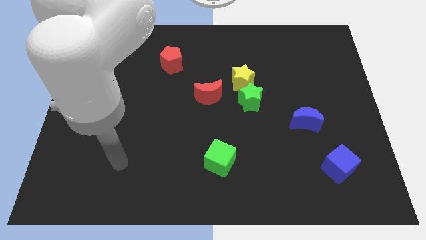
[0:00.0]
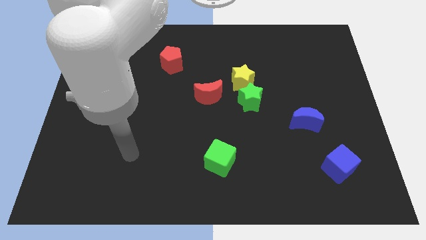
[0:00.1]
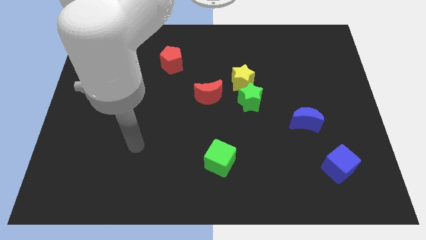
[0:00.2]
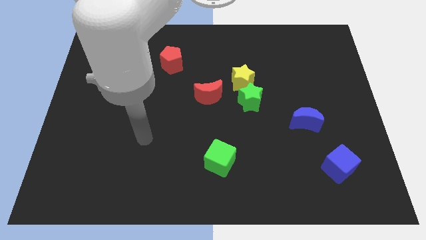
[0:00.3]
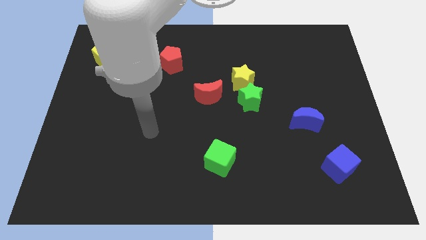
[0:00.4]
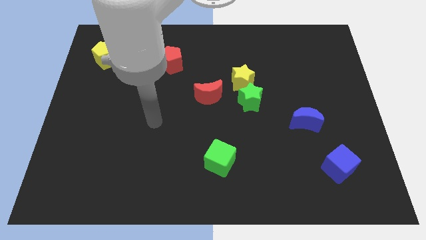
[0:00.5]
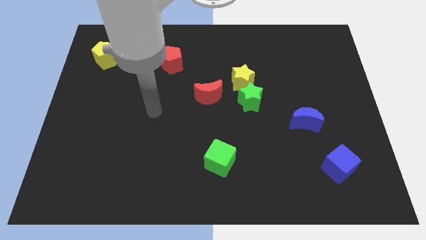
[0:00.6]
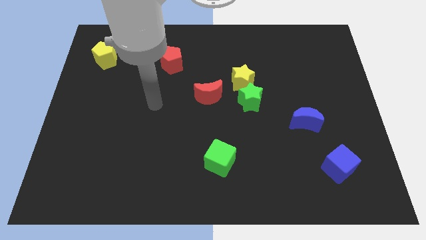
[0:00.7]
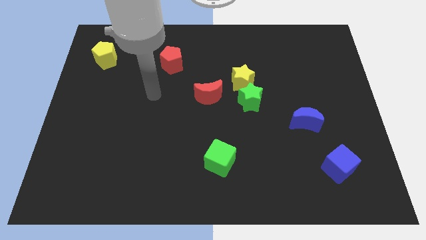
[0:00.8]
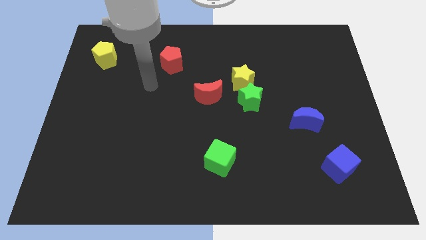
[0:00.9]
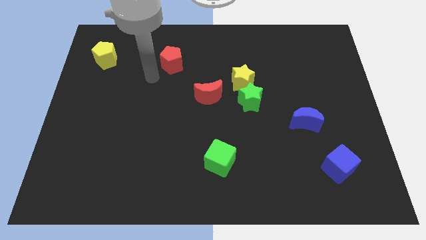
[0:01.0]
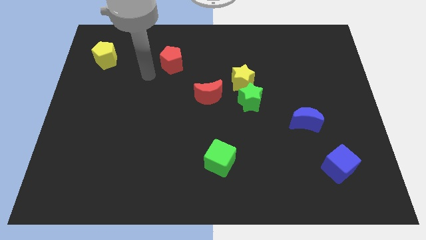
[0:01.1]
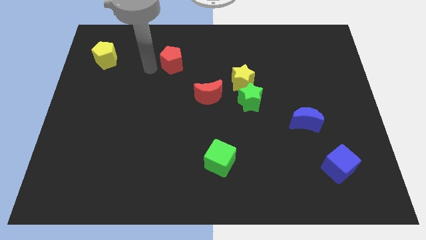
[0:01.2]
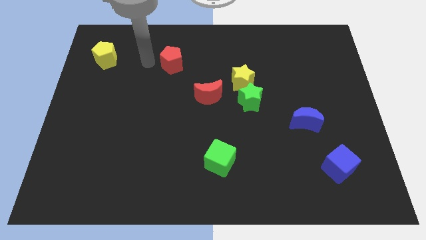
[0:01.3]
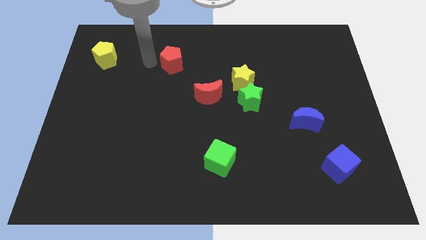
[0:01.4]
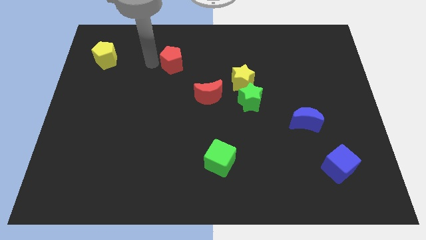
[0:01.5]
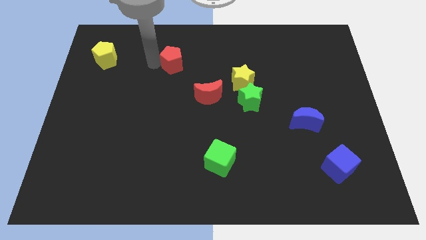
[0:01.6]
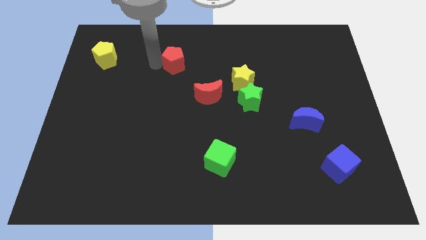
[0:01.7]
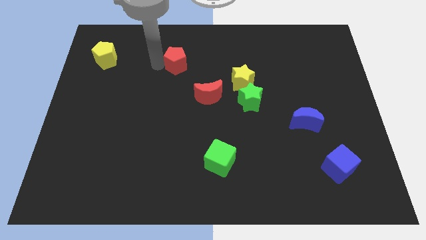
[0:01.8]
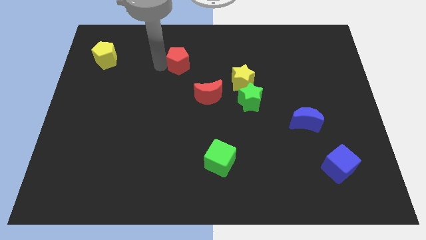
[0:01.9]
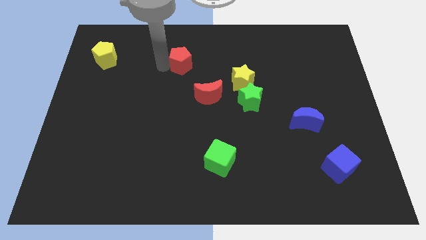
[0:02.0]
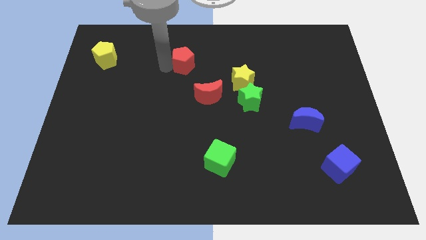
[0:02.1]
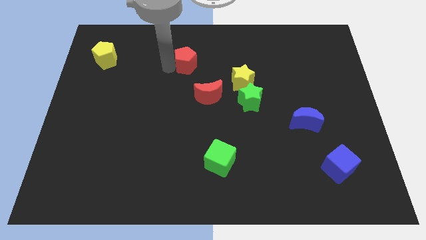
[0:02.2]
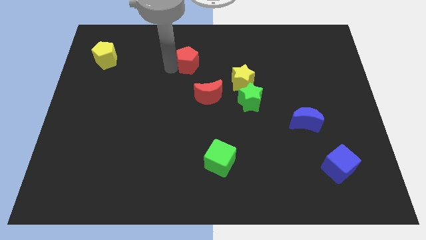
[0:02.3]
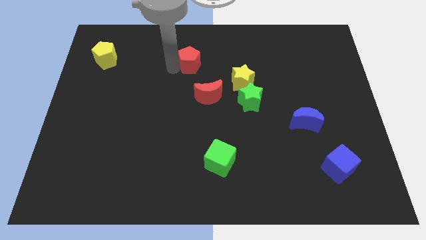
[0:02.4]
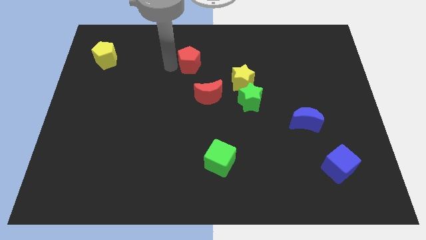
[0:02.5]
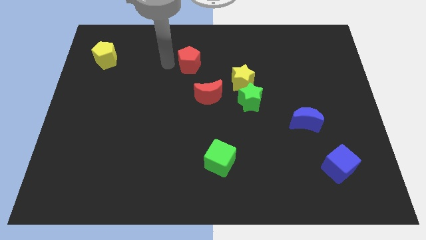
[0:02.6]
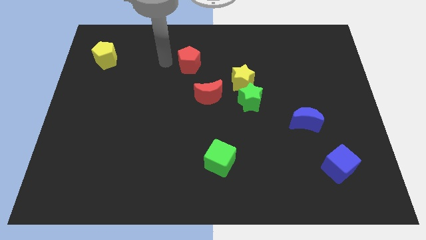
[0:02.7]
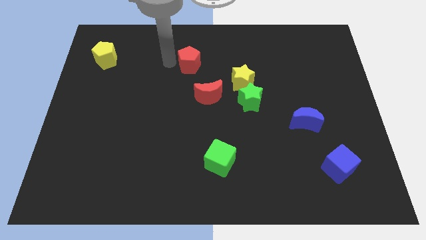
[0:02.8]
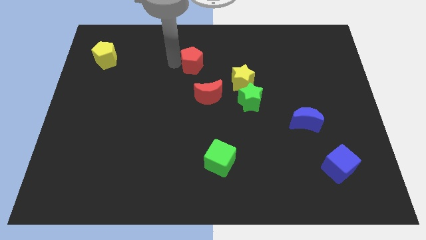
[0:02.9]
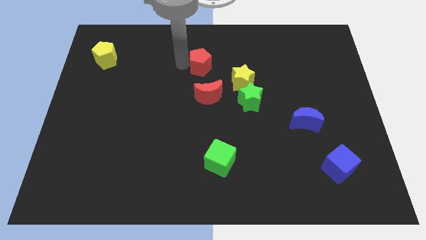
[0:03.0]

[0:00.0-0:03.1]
push the red pentagon a little bit to the right

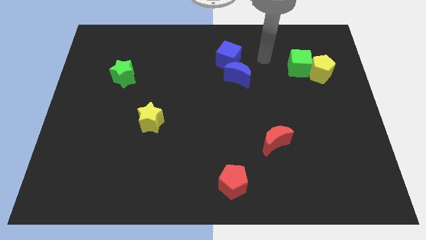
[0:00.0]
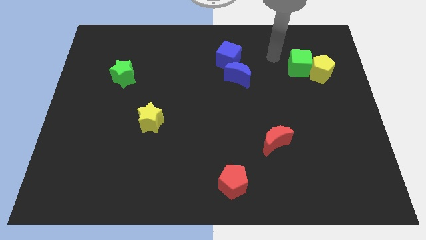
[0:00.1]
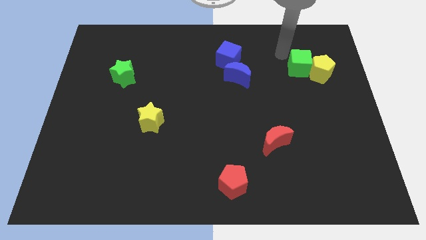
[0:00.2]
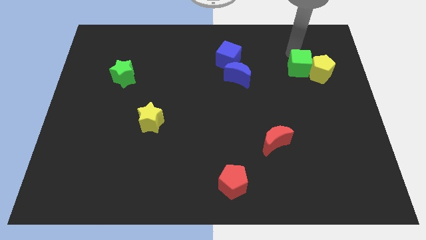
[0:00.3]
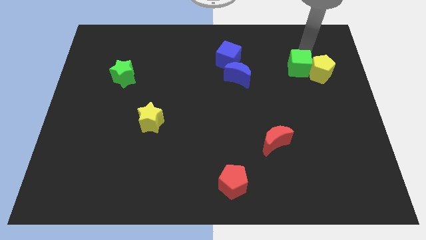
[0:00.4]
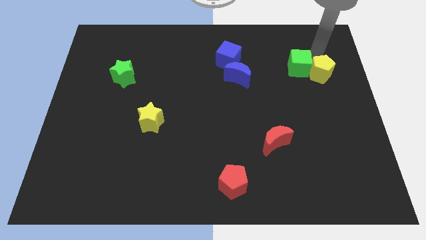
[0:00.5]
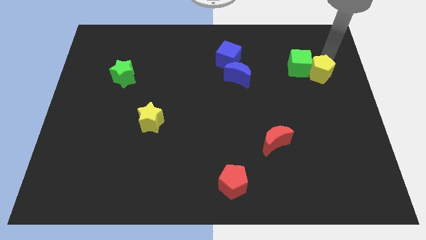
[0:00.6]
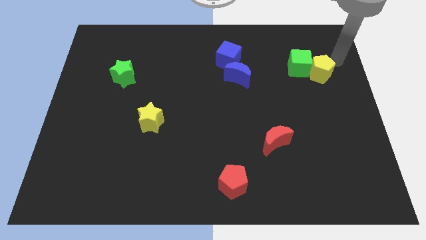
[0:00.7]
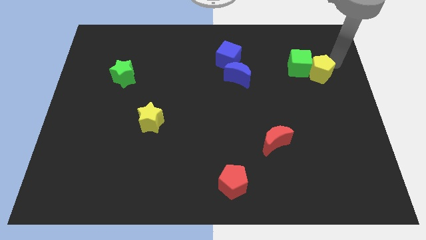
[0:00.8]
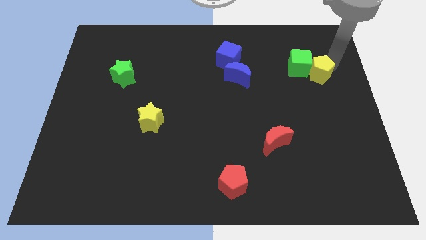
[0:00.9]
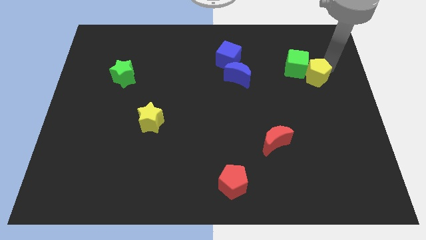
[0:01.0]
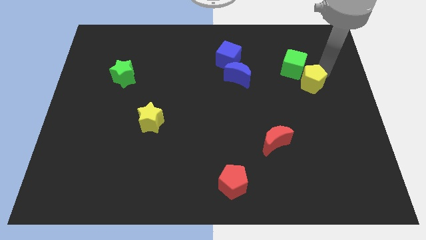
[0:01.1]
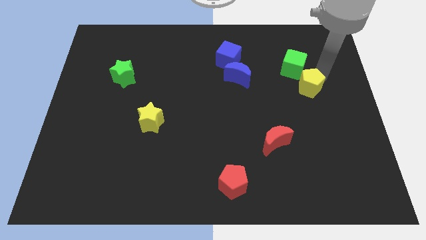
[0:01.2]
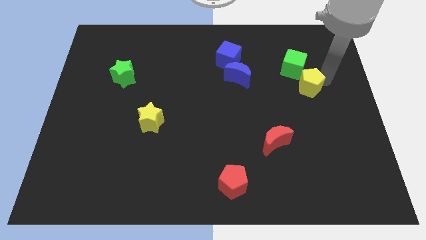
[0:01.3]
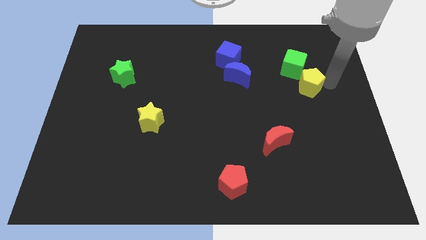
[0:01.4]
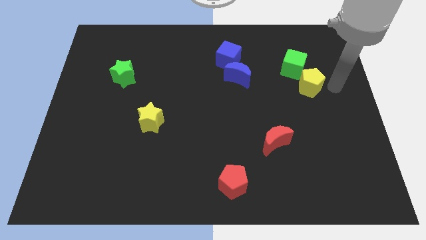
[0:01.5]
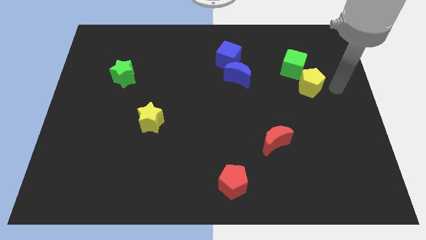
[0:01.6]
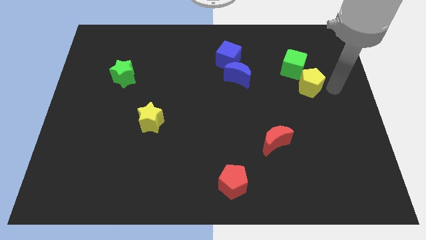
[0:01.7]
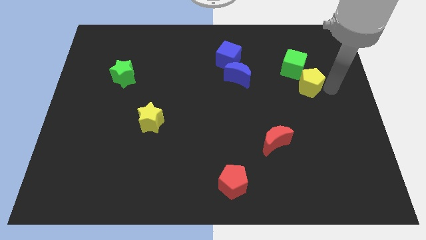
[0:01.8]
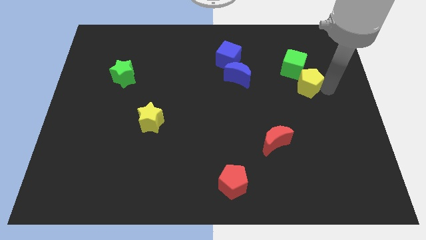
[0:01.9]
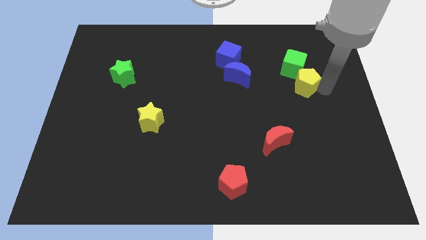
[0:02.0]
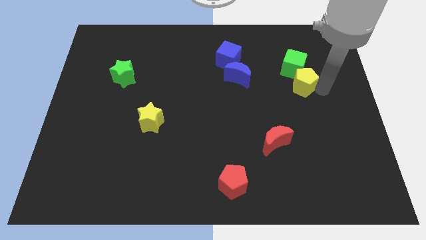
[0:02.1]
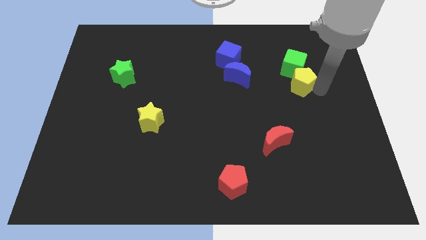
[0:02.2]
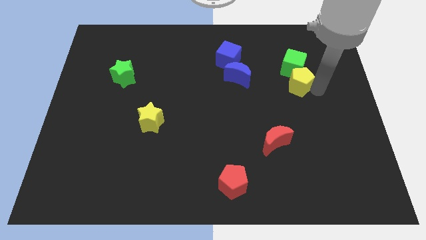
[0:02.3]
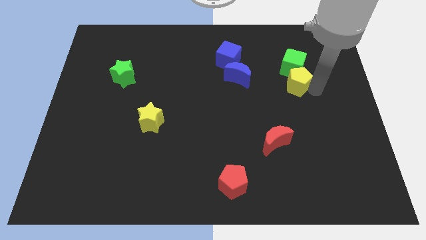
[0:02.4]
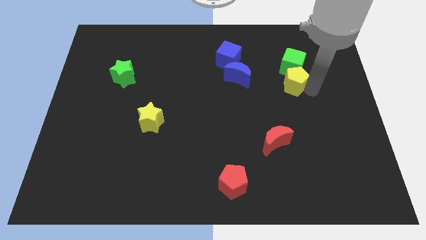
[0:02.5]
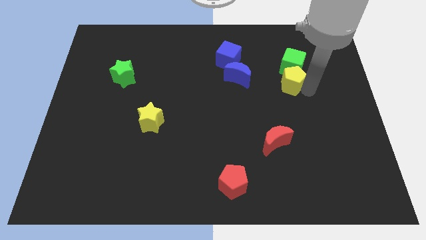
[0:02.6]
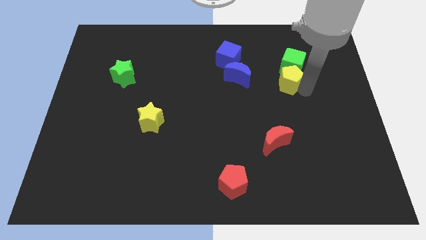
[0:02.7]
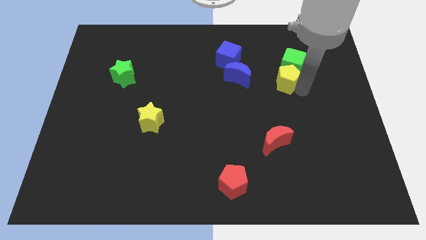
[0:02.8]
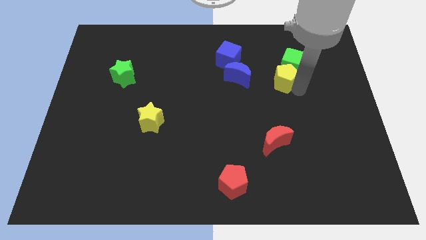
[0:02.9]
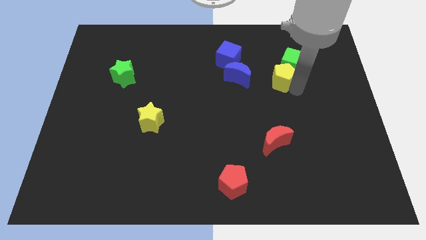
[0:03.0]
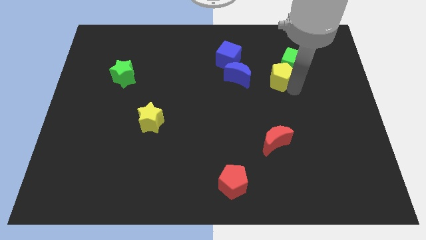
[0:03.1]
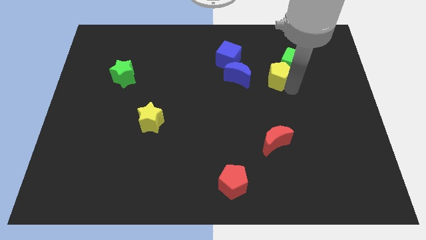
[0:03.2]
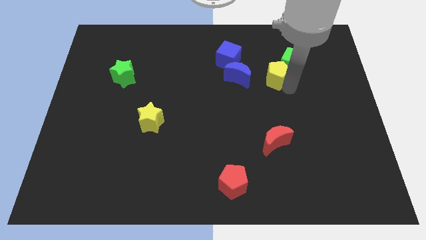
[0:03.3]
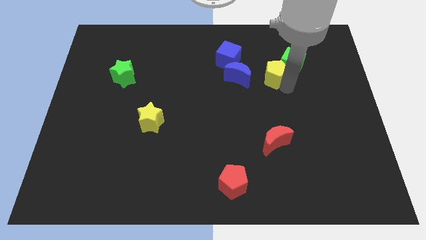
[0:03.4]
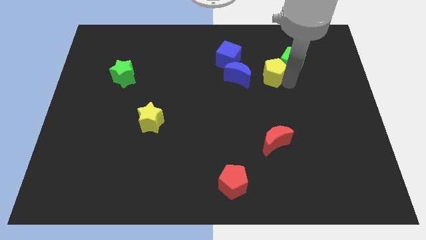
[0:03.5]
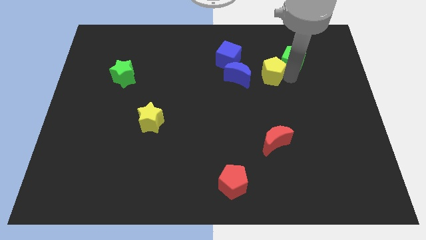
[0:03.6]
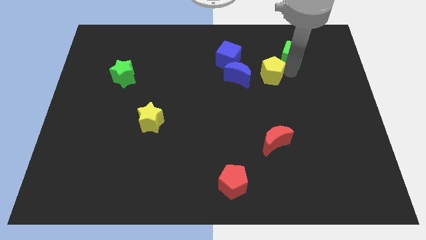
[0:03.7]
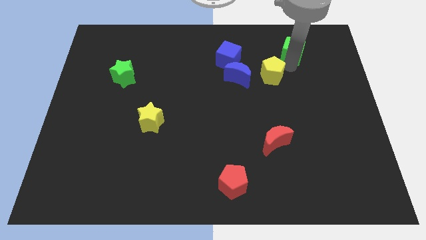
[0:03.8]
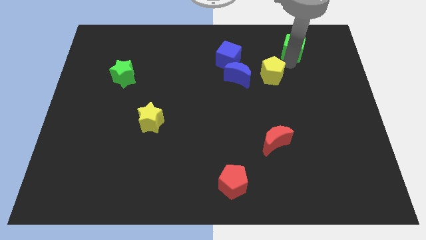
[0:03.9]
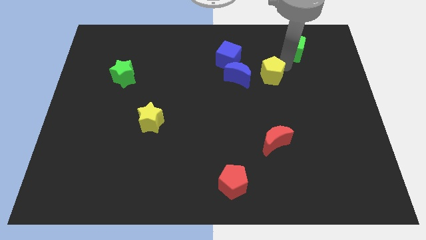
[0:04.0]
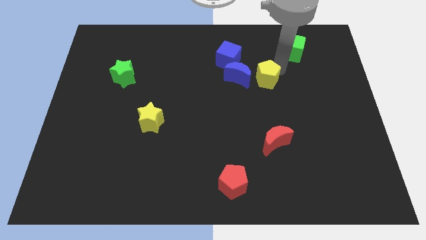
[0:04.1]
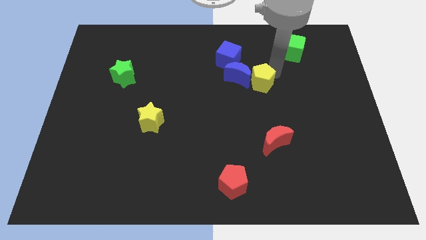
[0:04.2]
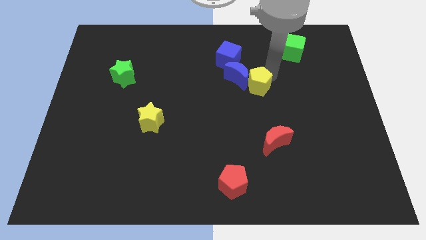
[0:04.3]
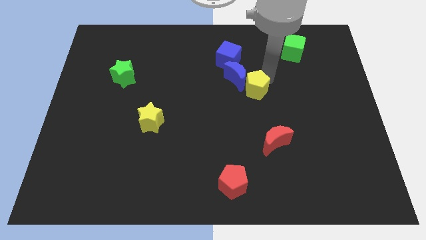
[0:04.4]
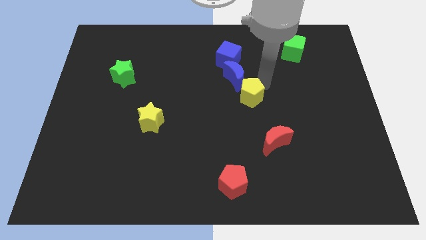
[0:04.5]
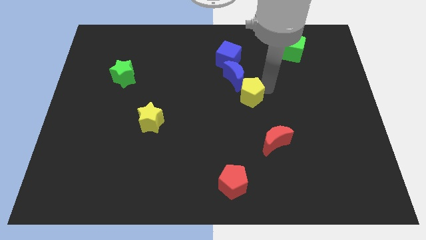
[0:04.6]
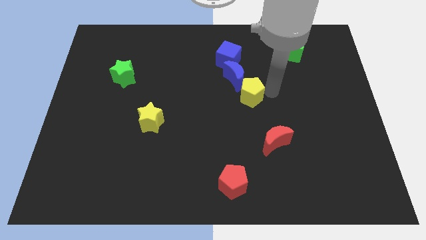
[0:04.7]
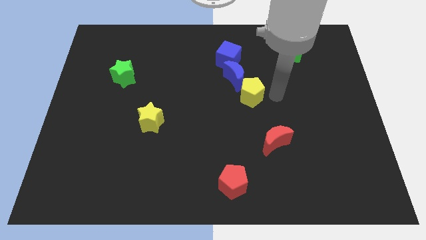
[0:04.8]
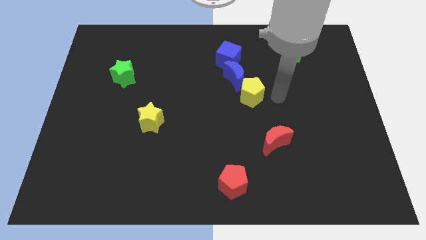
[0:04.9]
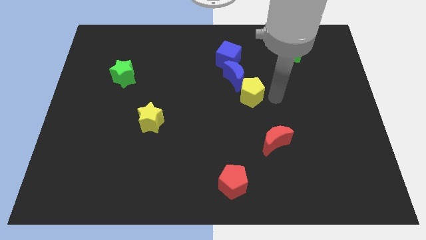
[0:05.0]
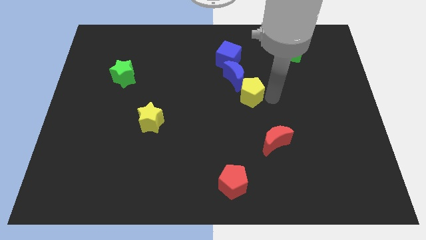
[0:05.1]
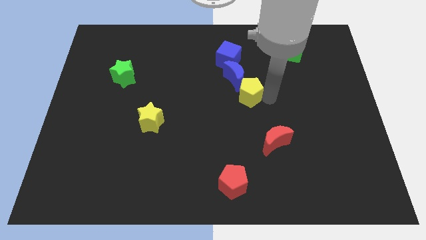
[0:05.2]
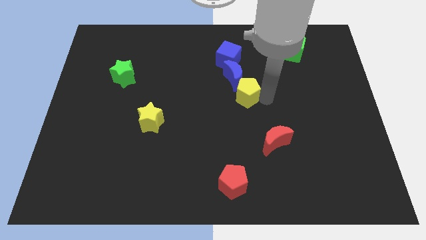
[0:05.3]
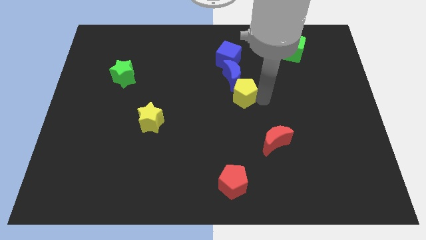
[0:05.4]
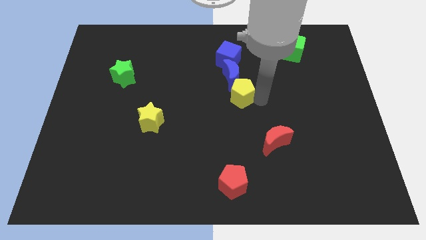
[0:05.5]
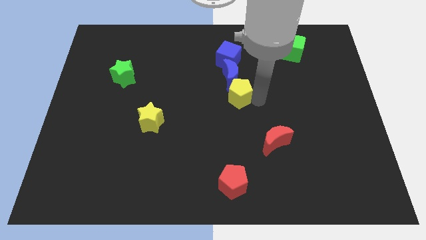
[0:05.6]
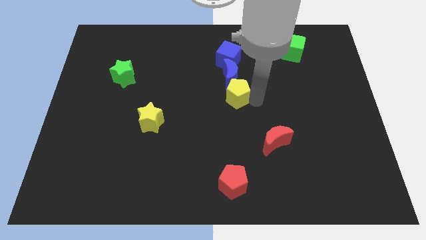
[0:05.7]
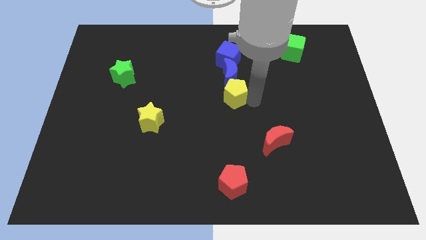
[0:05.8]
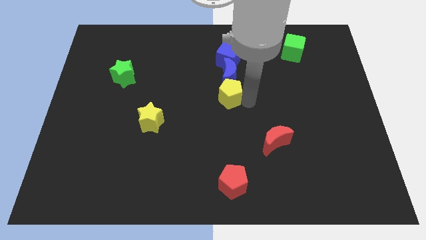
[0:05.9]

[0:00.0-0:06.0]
move the yellow pentagon to the left
